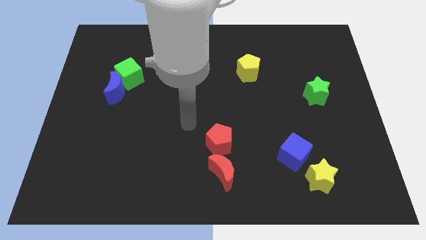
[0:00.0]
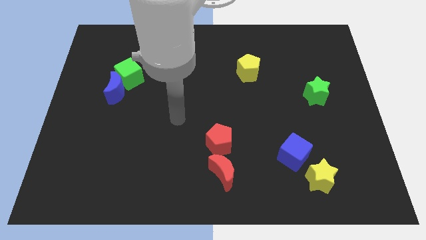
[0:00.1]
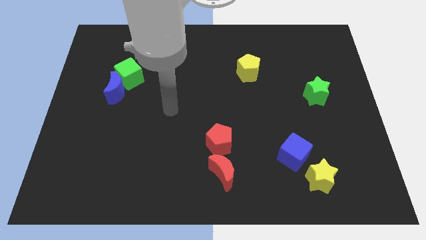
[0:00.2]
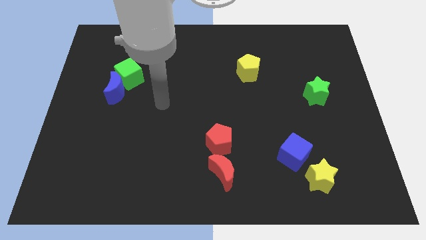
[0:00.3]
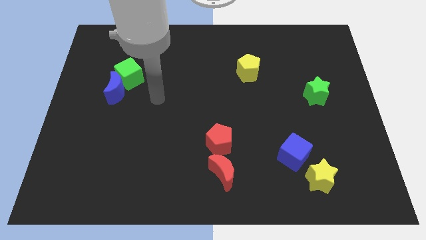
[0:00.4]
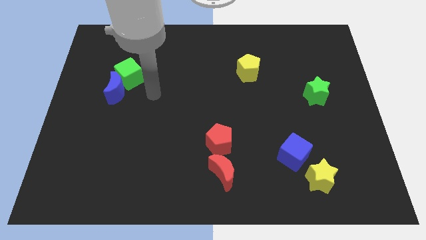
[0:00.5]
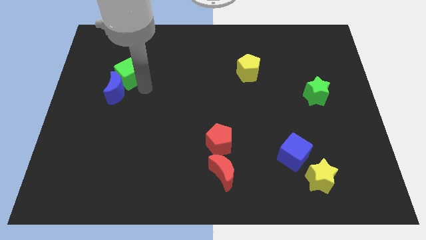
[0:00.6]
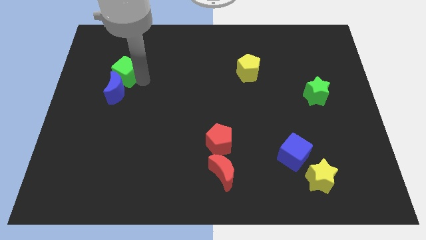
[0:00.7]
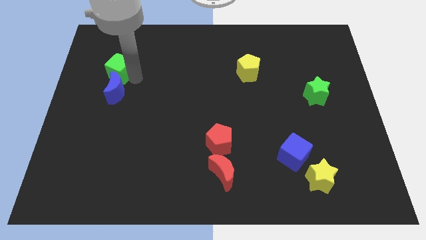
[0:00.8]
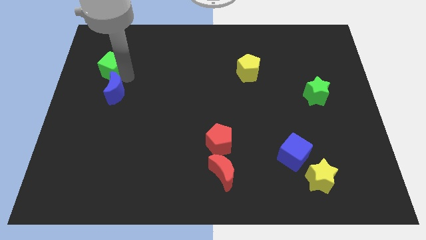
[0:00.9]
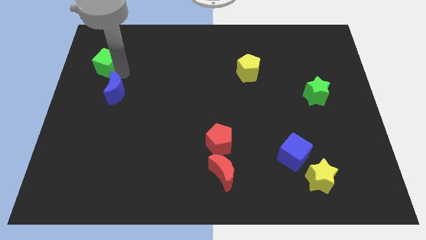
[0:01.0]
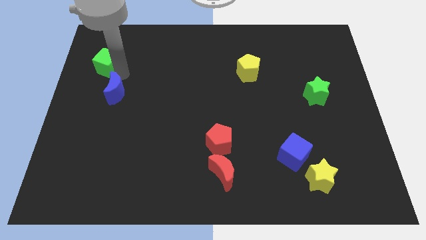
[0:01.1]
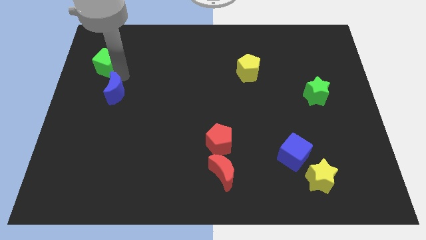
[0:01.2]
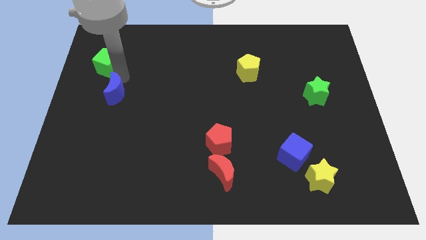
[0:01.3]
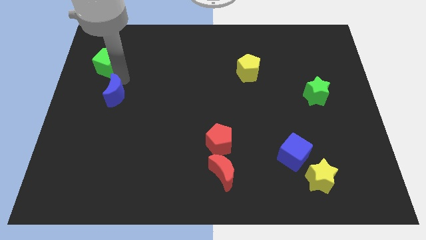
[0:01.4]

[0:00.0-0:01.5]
separate the blue moon from the green cube

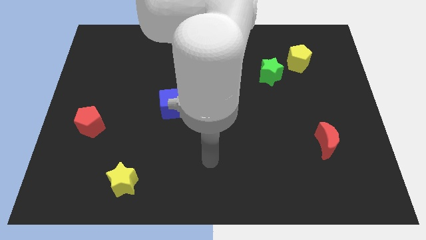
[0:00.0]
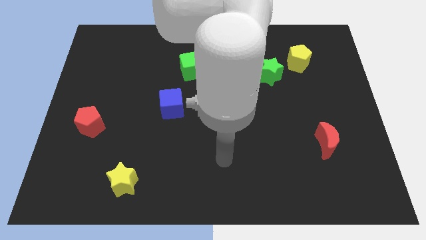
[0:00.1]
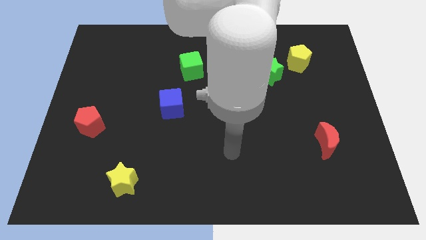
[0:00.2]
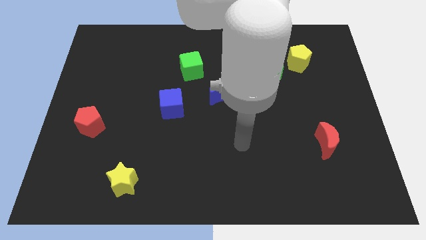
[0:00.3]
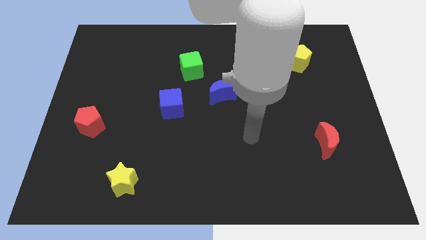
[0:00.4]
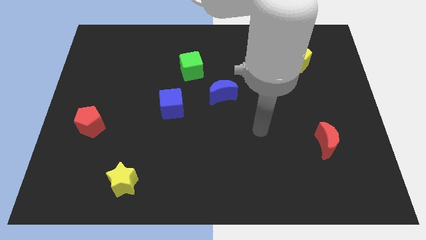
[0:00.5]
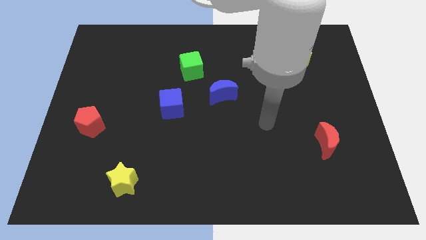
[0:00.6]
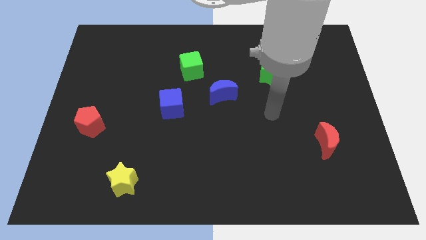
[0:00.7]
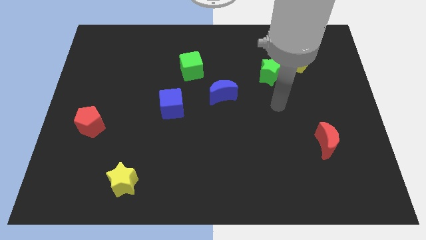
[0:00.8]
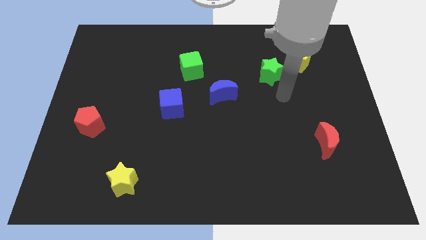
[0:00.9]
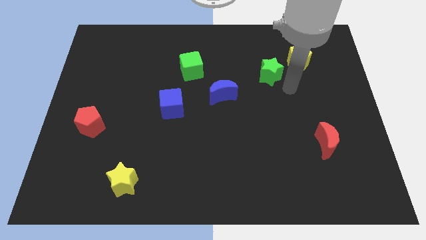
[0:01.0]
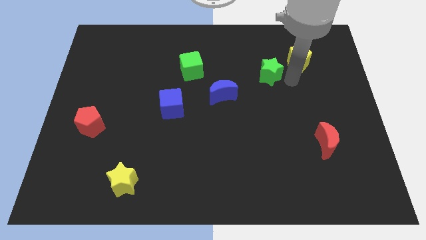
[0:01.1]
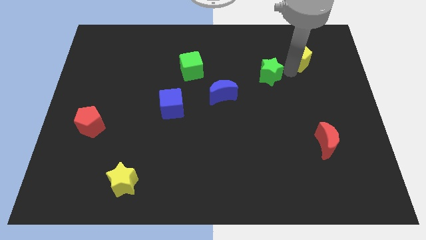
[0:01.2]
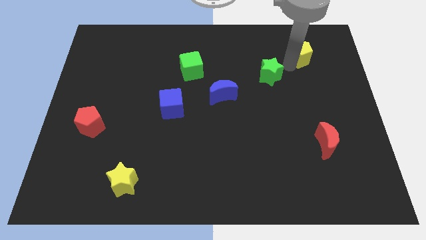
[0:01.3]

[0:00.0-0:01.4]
move the green star away from the yellow pentagon

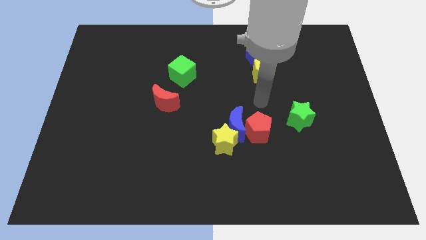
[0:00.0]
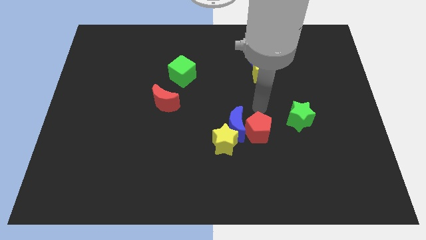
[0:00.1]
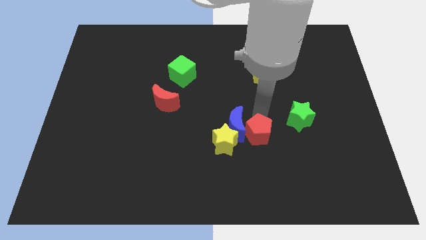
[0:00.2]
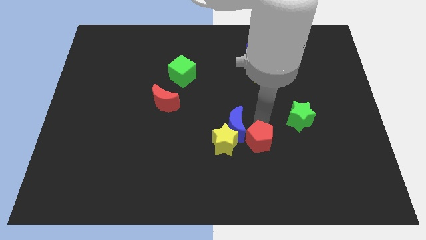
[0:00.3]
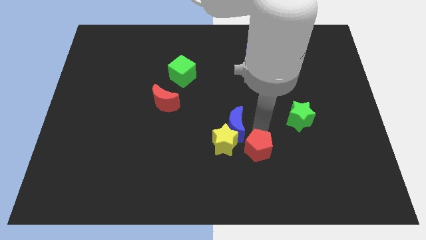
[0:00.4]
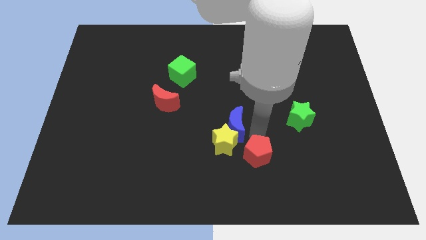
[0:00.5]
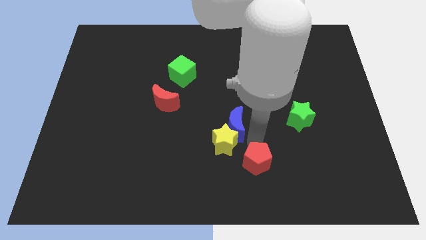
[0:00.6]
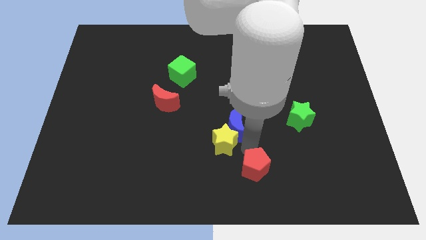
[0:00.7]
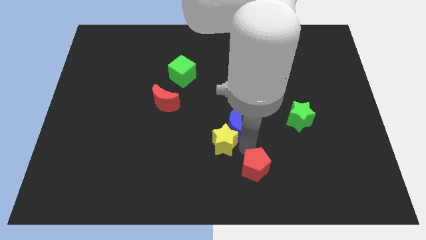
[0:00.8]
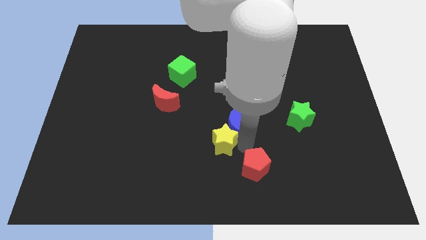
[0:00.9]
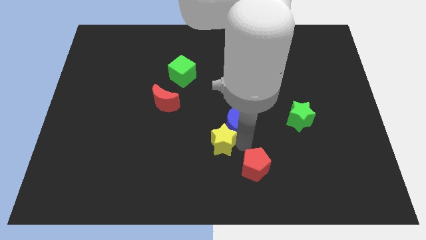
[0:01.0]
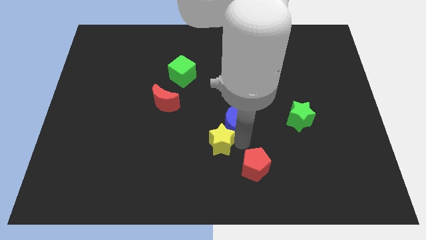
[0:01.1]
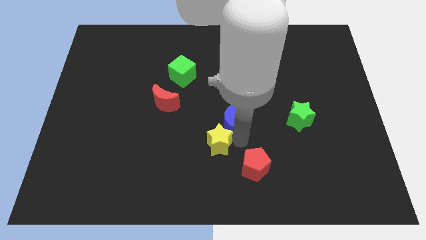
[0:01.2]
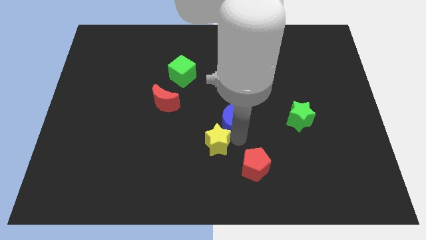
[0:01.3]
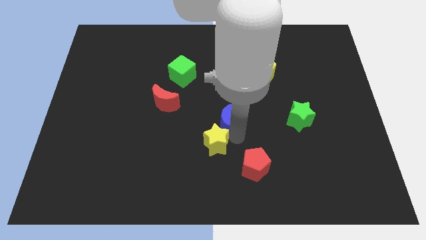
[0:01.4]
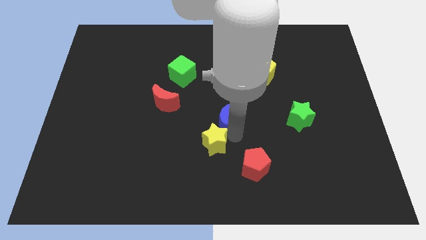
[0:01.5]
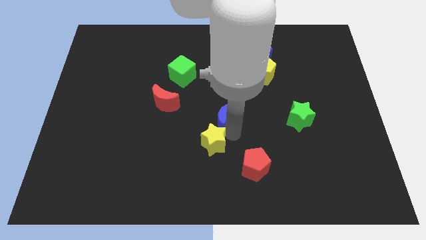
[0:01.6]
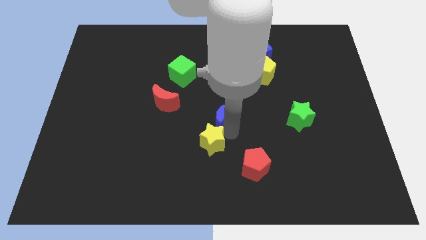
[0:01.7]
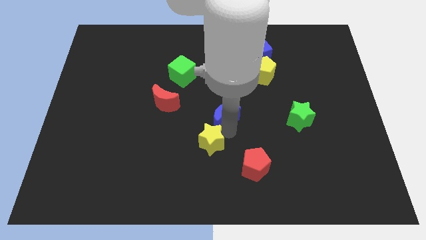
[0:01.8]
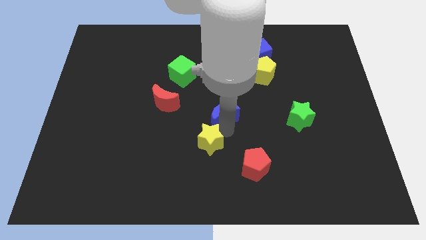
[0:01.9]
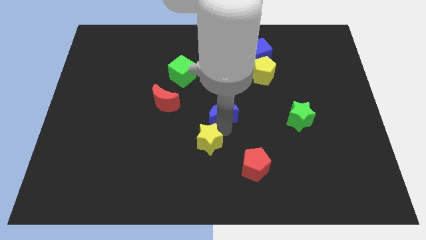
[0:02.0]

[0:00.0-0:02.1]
move the blue moon away from the yellow star and red pentagon

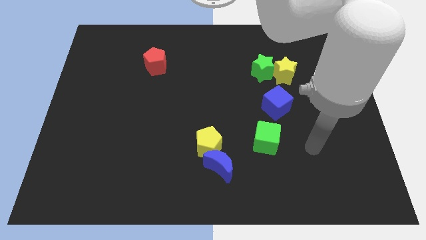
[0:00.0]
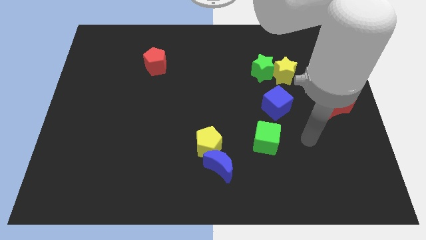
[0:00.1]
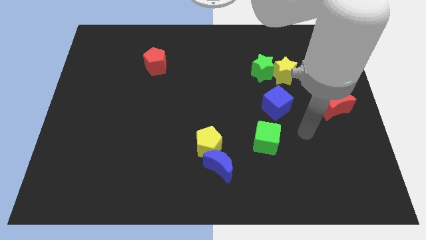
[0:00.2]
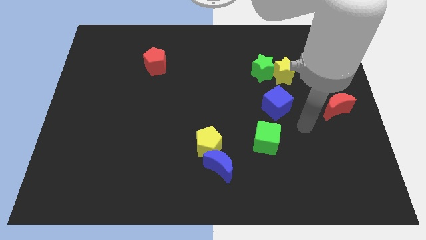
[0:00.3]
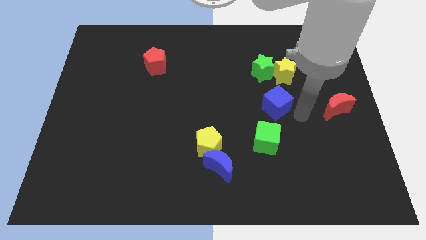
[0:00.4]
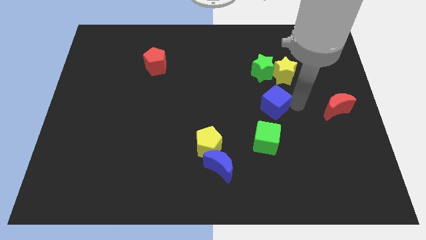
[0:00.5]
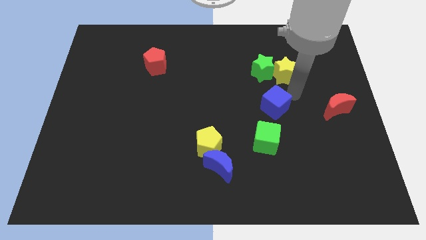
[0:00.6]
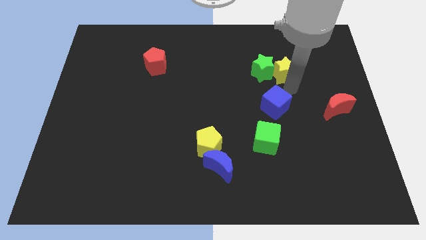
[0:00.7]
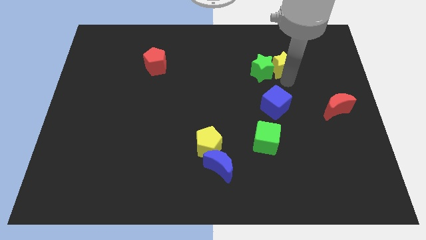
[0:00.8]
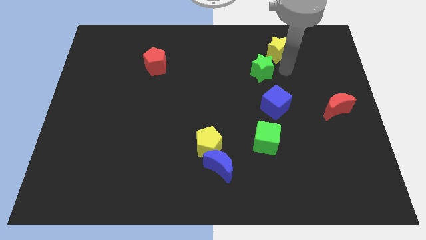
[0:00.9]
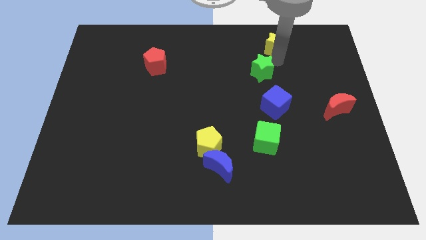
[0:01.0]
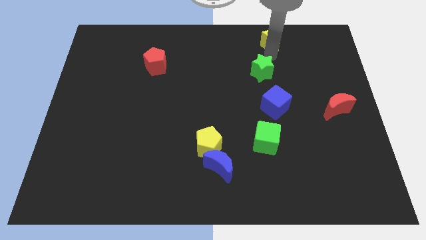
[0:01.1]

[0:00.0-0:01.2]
move the green star away from the yellow star

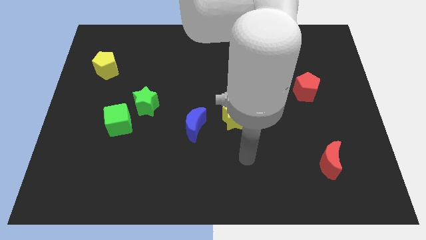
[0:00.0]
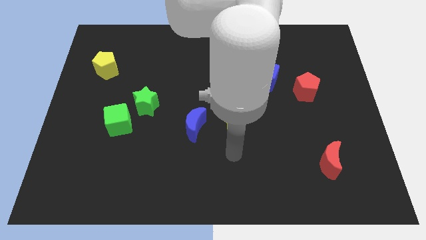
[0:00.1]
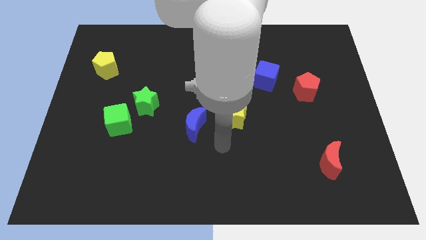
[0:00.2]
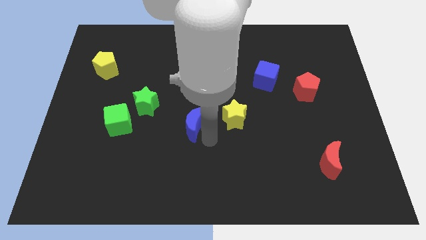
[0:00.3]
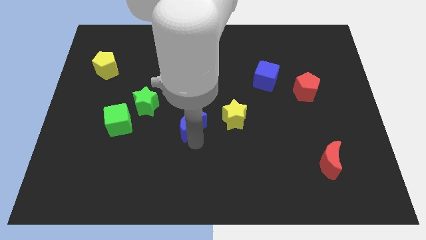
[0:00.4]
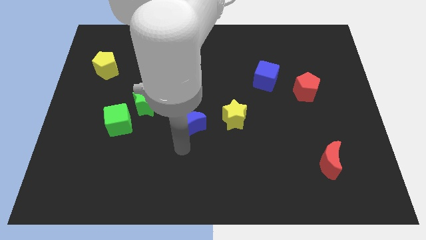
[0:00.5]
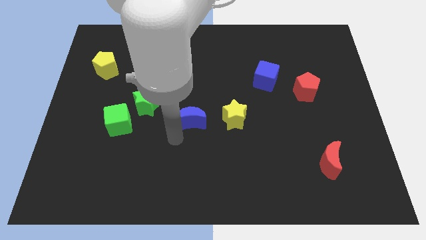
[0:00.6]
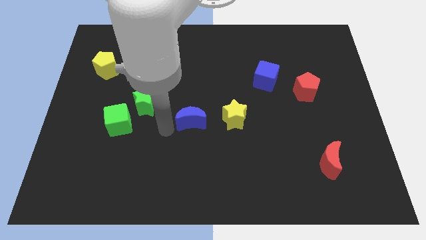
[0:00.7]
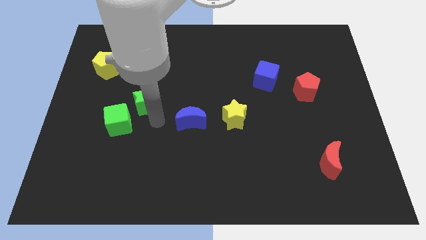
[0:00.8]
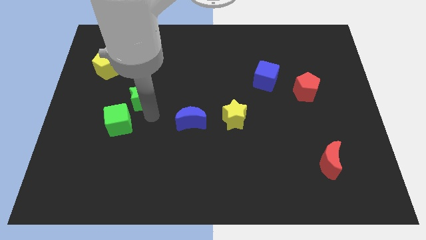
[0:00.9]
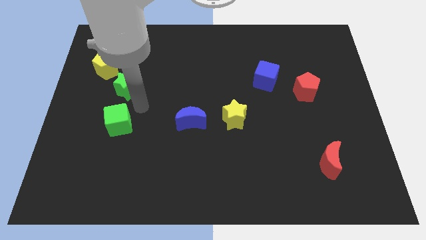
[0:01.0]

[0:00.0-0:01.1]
move the green cube away from the green star

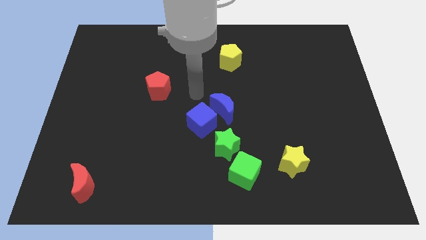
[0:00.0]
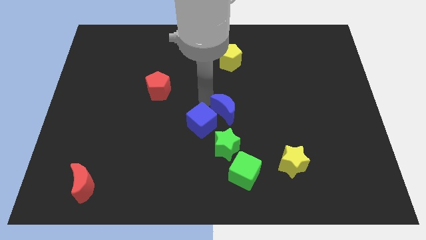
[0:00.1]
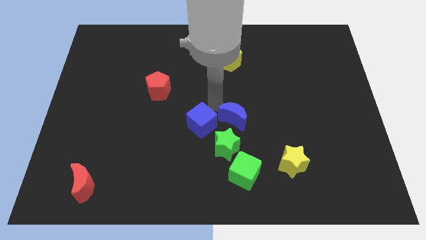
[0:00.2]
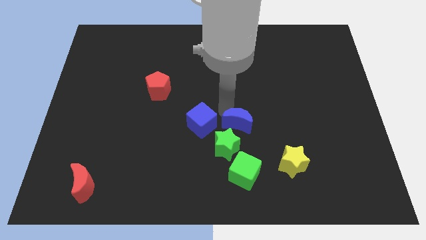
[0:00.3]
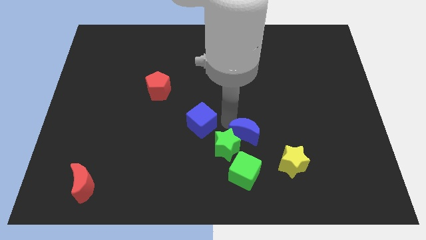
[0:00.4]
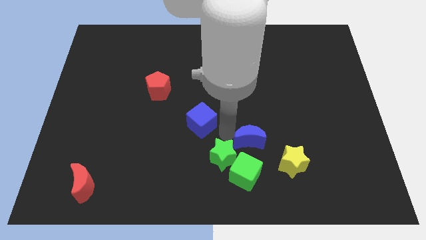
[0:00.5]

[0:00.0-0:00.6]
separate the blue cube from the blue moon and green star

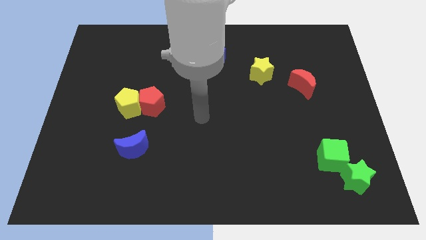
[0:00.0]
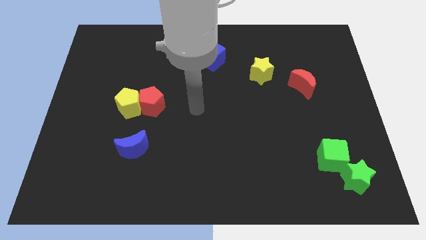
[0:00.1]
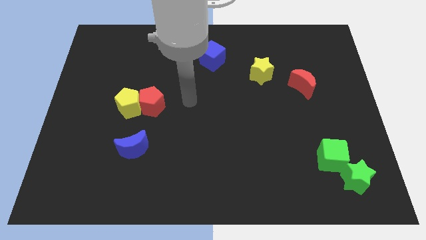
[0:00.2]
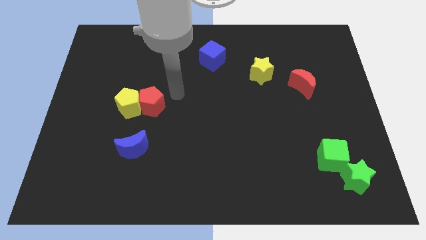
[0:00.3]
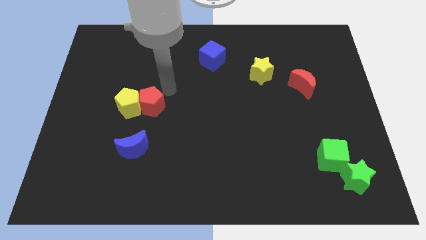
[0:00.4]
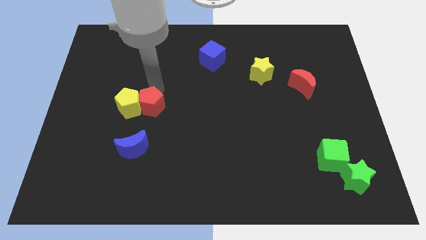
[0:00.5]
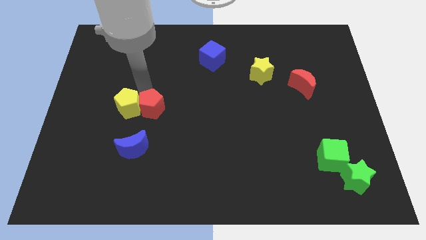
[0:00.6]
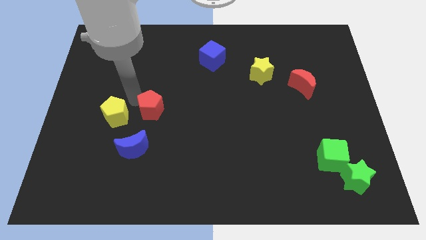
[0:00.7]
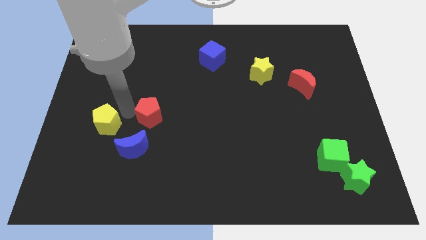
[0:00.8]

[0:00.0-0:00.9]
pull the red pentagon apart from the yellow pentagon

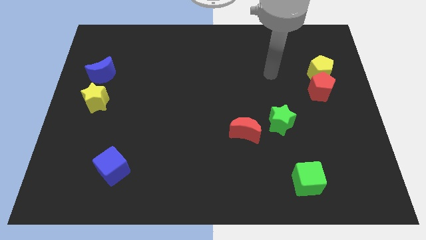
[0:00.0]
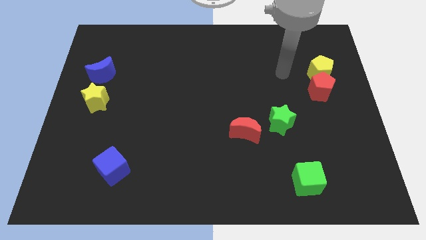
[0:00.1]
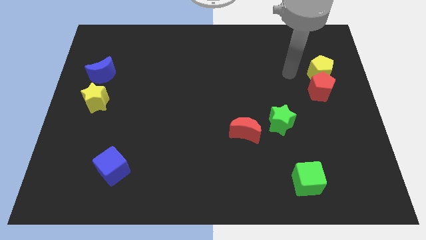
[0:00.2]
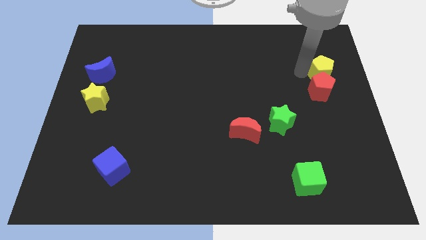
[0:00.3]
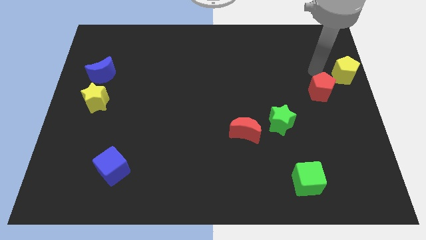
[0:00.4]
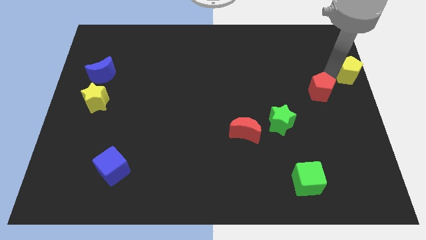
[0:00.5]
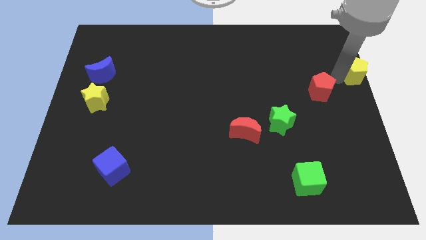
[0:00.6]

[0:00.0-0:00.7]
move the red pentagon away from the yellow pentagon
